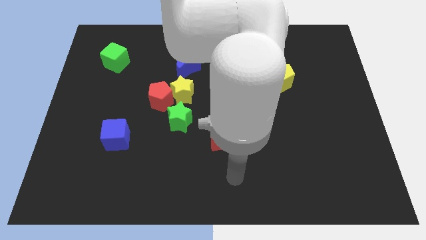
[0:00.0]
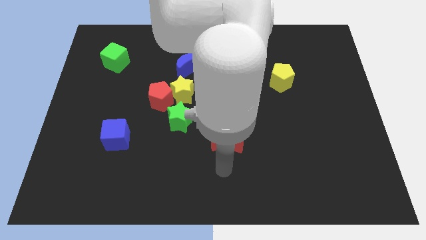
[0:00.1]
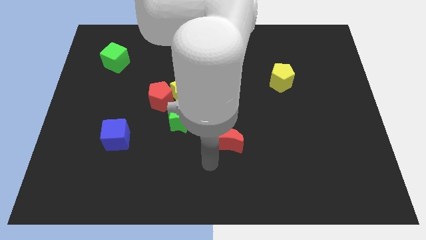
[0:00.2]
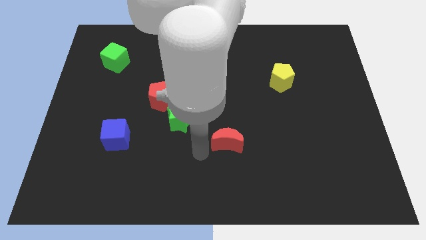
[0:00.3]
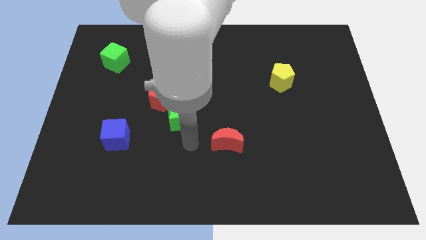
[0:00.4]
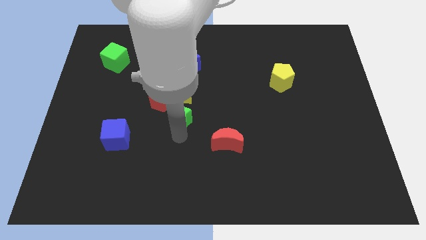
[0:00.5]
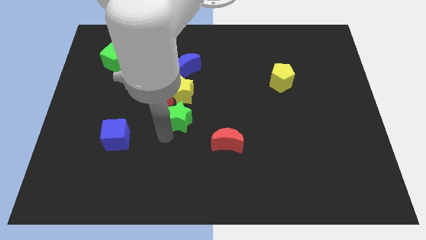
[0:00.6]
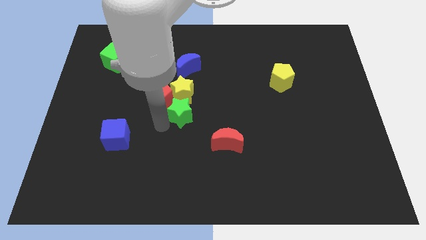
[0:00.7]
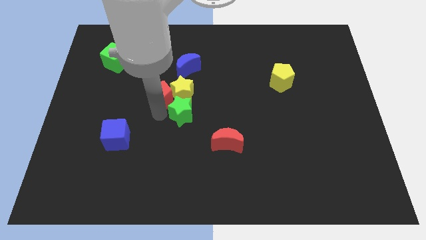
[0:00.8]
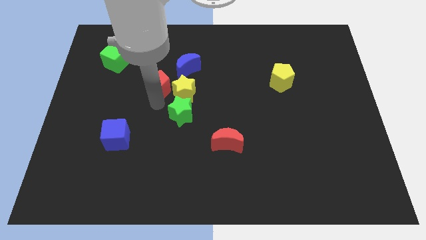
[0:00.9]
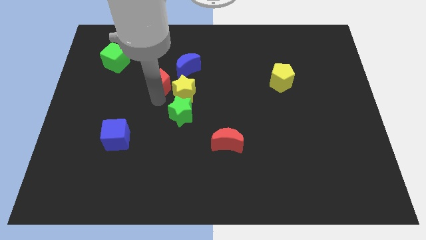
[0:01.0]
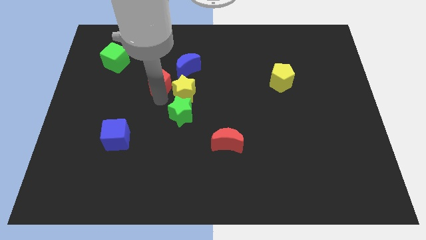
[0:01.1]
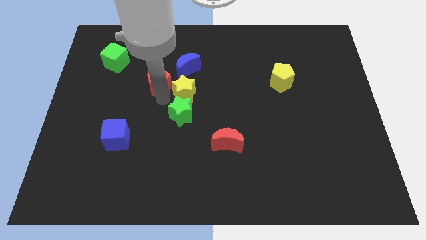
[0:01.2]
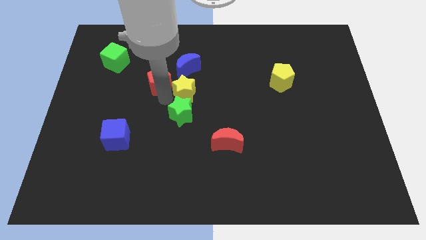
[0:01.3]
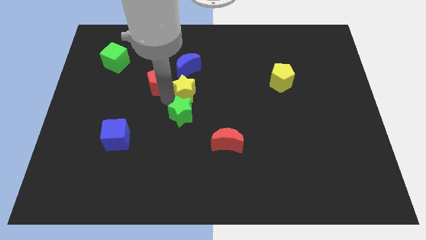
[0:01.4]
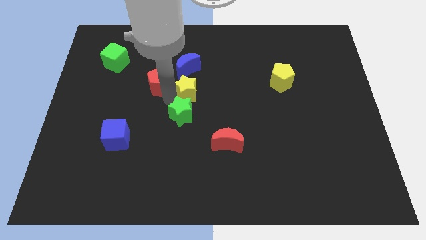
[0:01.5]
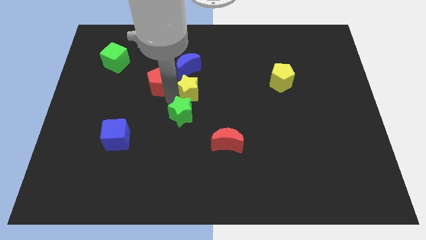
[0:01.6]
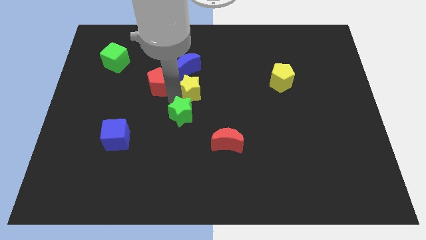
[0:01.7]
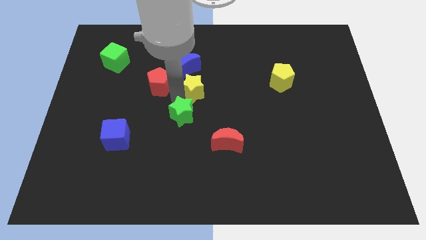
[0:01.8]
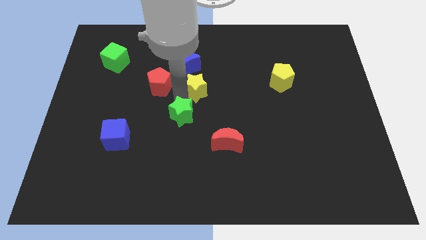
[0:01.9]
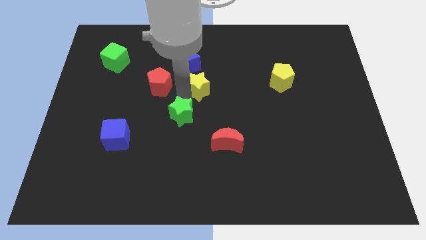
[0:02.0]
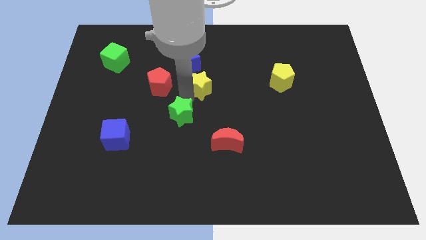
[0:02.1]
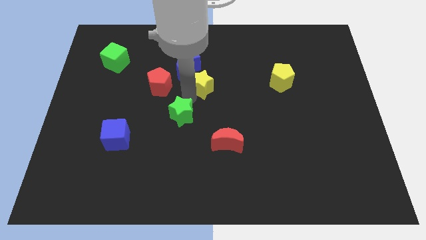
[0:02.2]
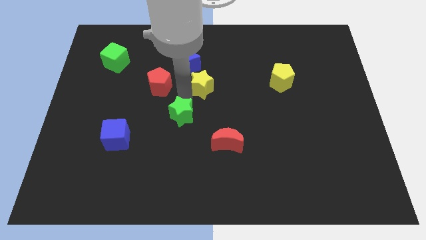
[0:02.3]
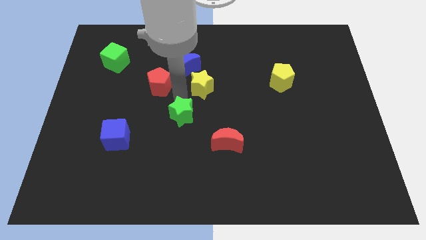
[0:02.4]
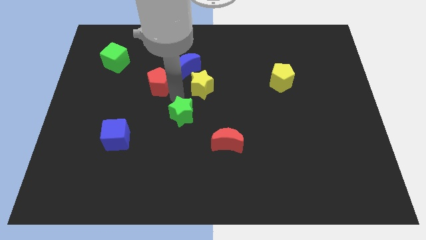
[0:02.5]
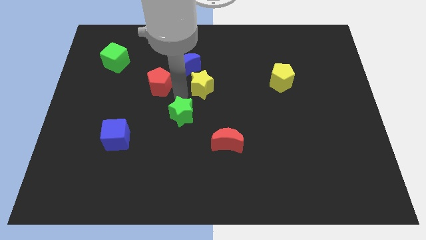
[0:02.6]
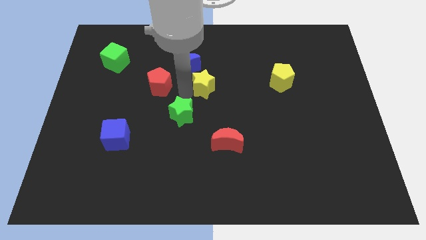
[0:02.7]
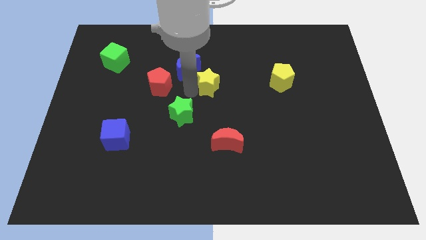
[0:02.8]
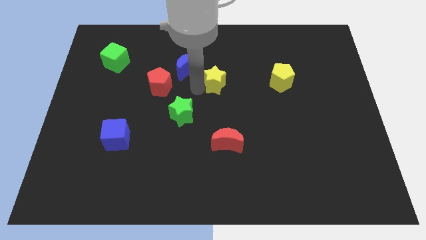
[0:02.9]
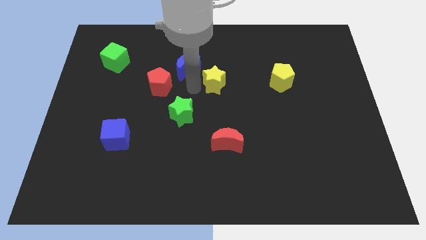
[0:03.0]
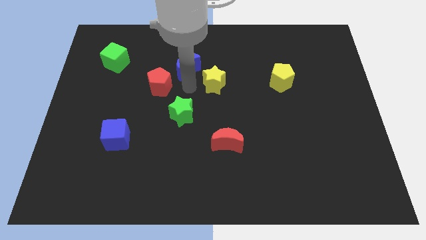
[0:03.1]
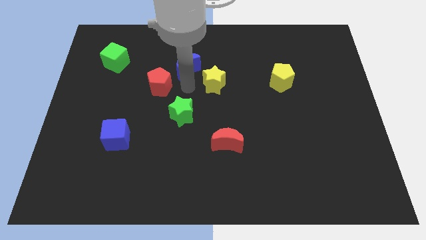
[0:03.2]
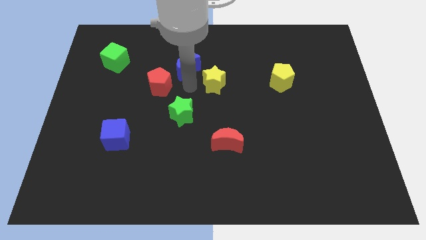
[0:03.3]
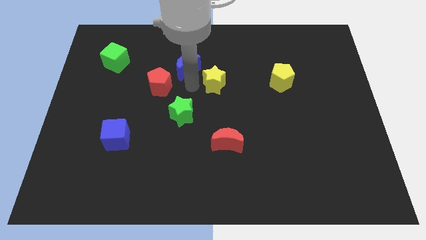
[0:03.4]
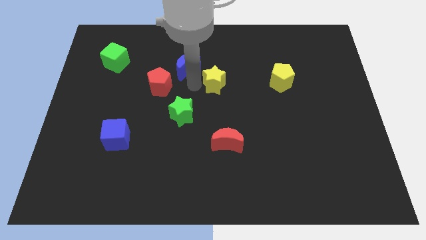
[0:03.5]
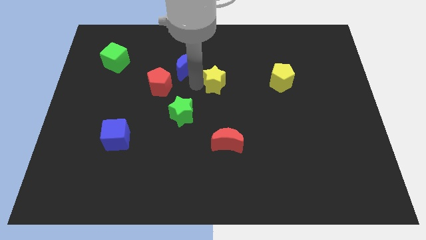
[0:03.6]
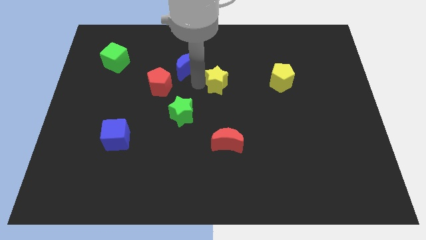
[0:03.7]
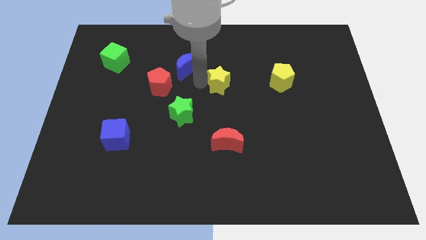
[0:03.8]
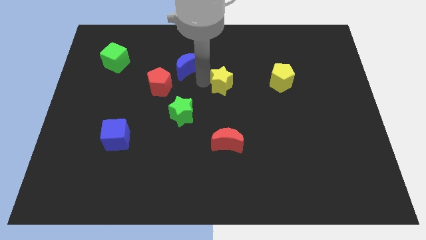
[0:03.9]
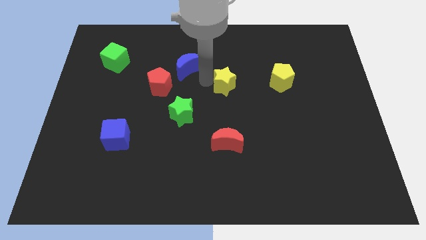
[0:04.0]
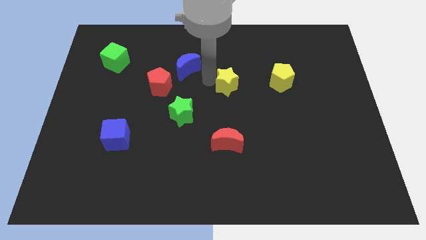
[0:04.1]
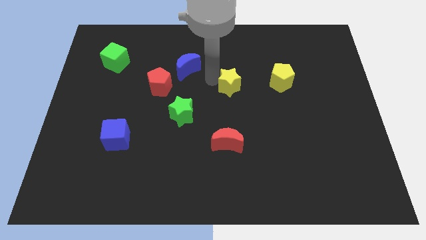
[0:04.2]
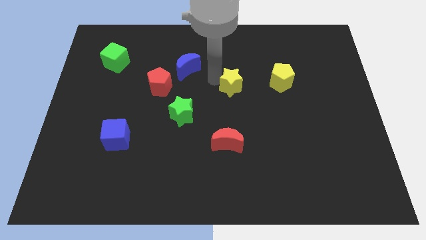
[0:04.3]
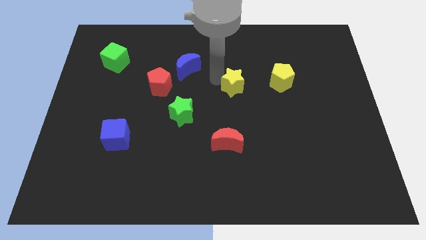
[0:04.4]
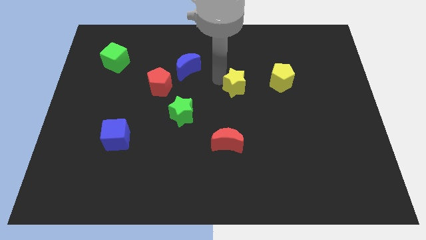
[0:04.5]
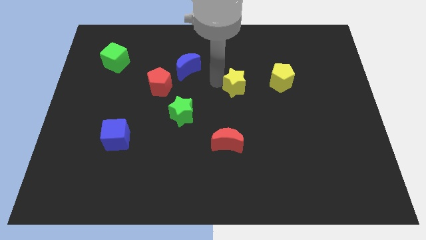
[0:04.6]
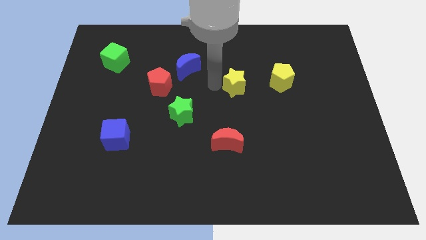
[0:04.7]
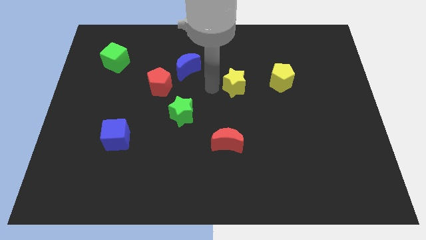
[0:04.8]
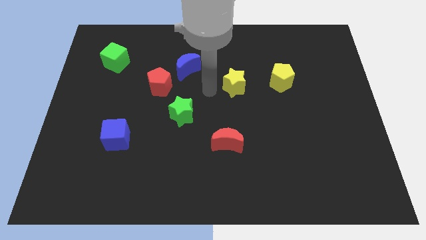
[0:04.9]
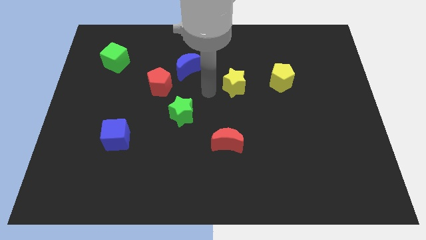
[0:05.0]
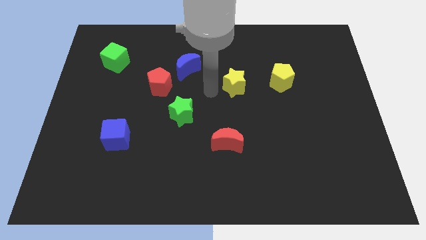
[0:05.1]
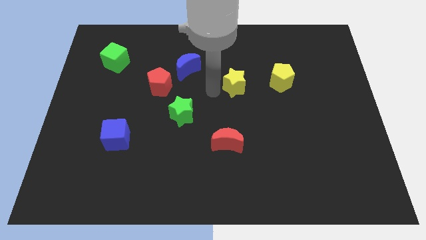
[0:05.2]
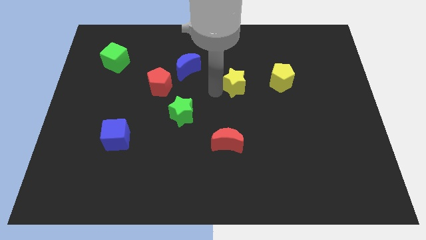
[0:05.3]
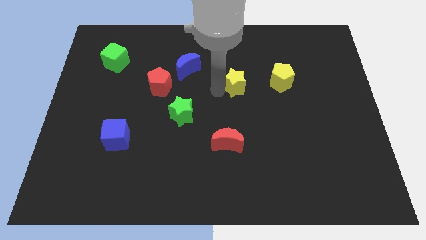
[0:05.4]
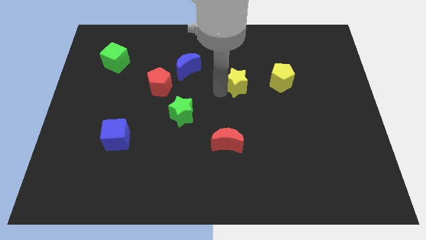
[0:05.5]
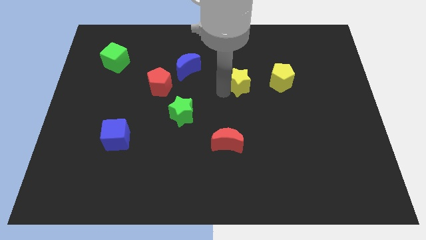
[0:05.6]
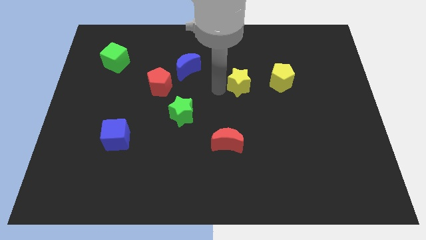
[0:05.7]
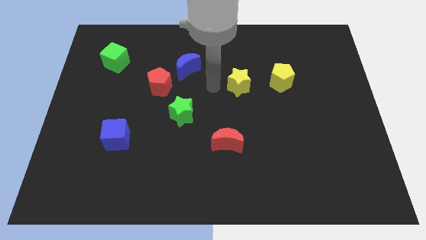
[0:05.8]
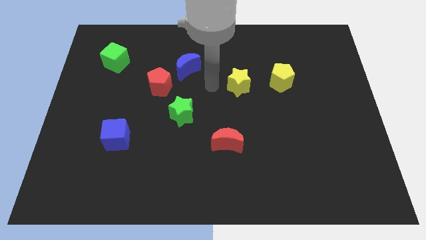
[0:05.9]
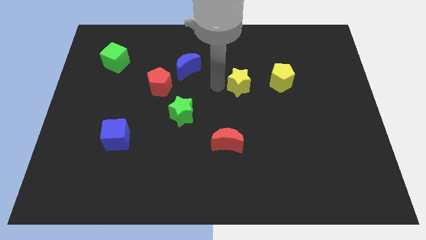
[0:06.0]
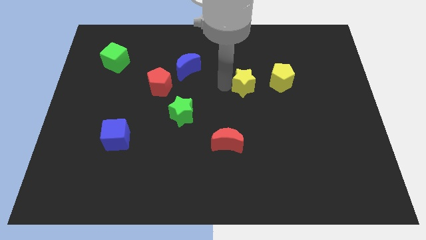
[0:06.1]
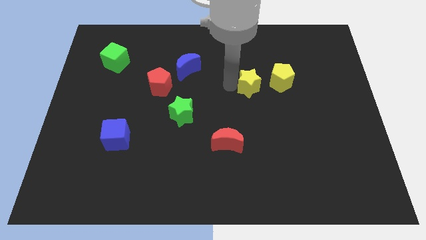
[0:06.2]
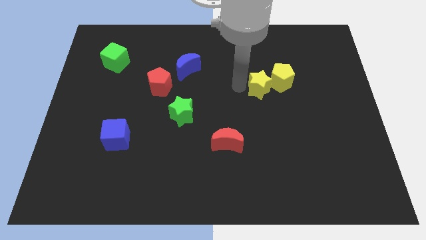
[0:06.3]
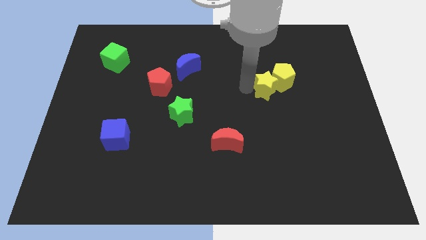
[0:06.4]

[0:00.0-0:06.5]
move the yellow star towards the yellow pentagon

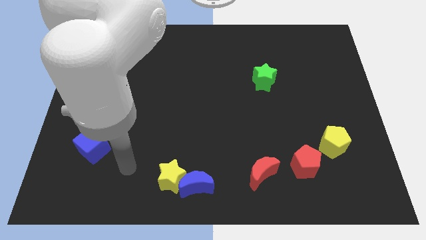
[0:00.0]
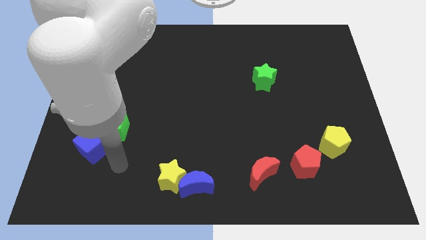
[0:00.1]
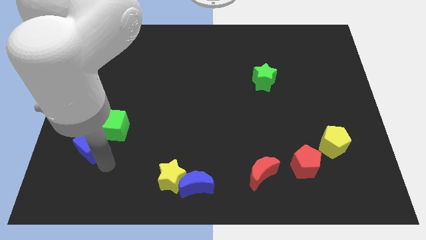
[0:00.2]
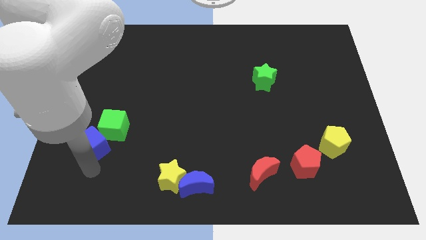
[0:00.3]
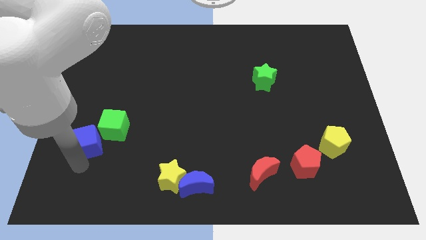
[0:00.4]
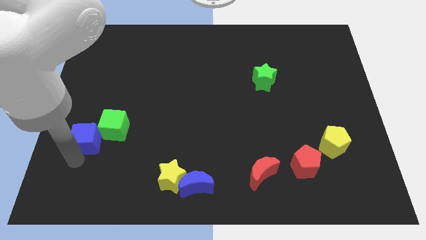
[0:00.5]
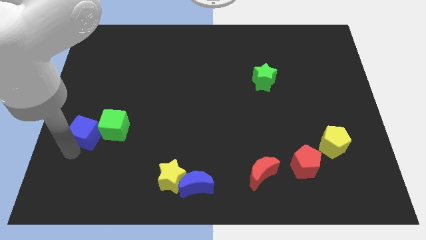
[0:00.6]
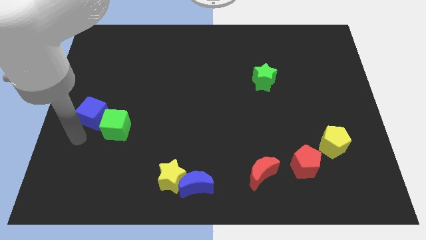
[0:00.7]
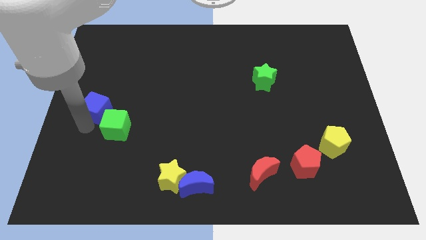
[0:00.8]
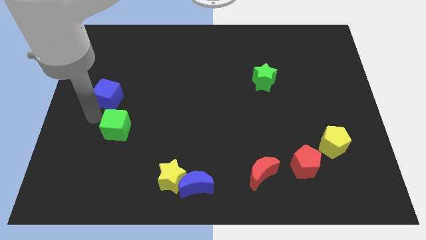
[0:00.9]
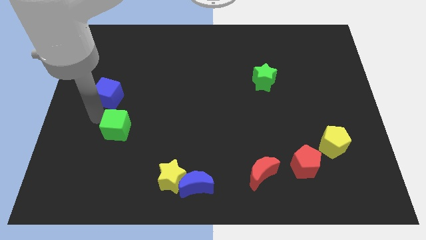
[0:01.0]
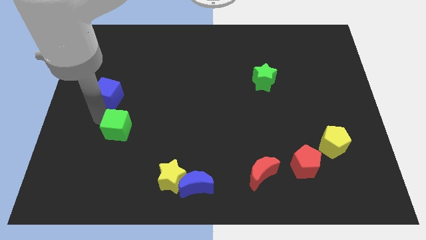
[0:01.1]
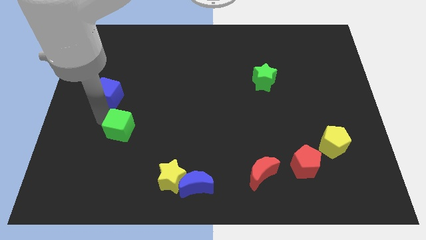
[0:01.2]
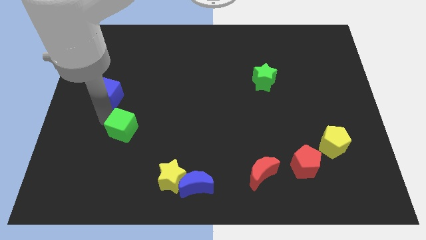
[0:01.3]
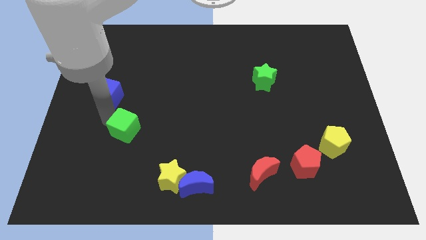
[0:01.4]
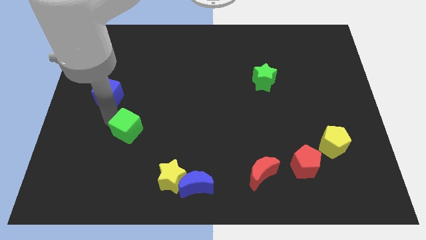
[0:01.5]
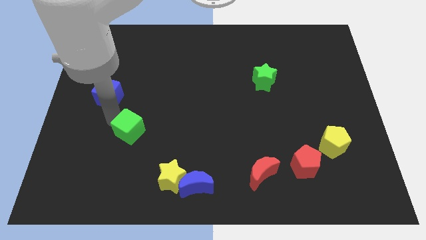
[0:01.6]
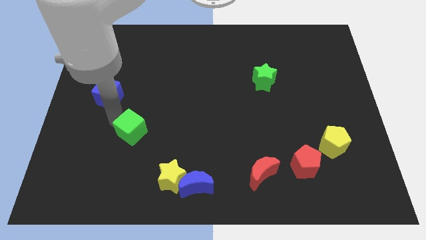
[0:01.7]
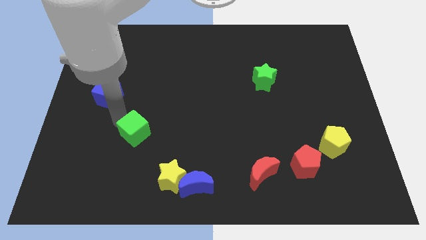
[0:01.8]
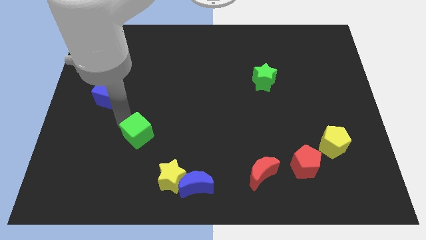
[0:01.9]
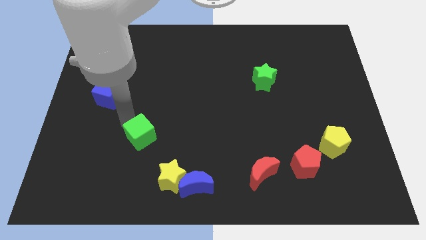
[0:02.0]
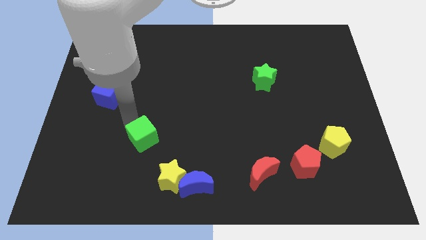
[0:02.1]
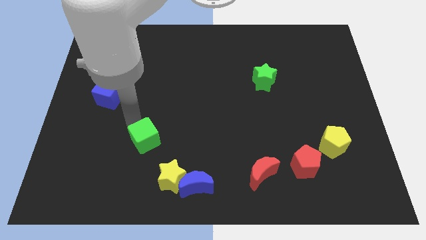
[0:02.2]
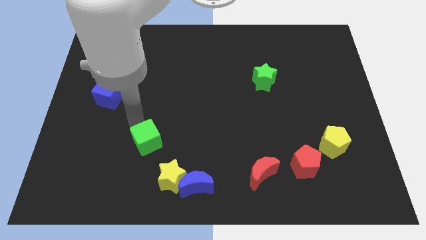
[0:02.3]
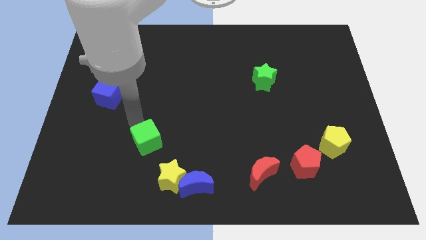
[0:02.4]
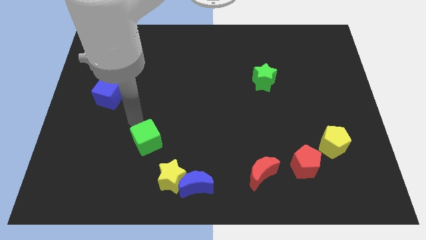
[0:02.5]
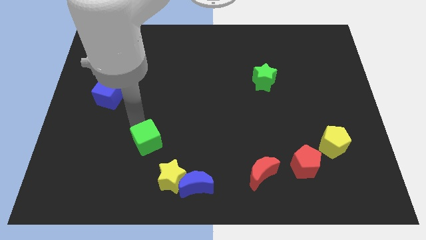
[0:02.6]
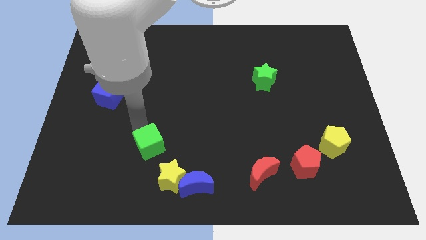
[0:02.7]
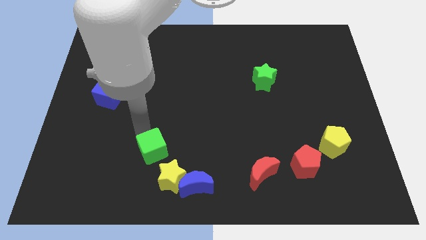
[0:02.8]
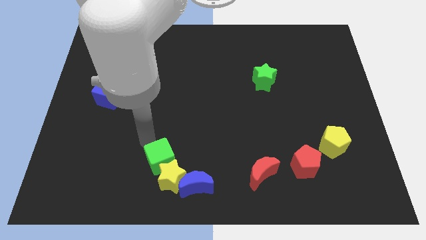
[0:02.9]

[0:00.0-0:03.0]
put the green cube close to the yellow star
